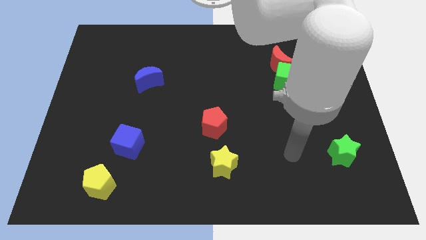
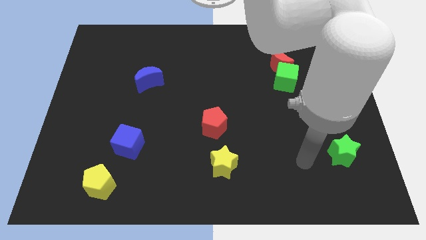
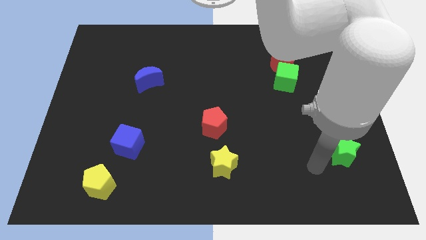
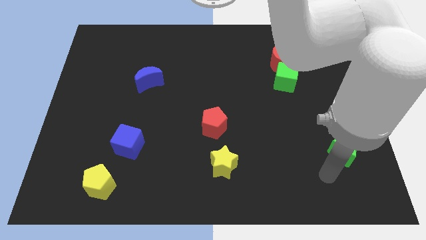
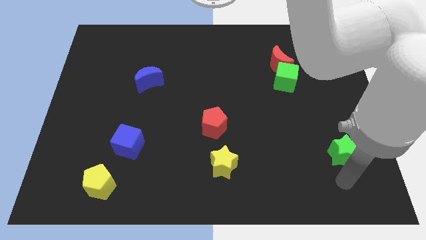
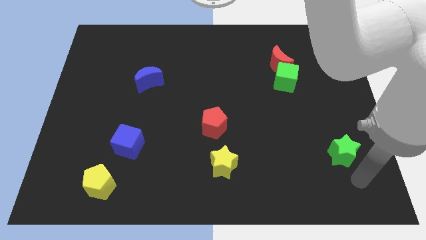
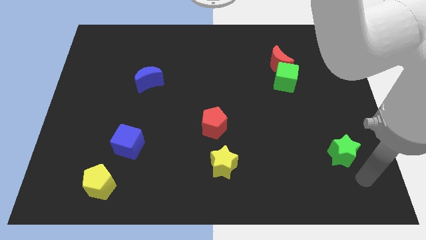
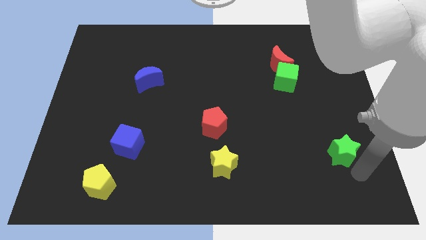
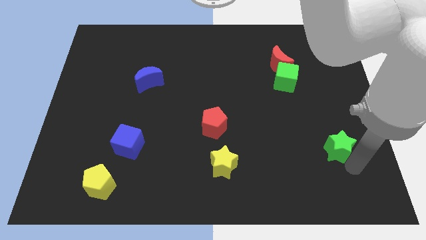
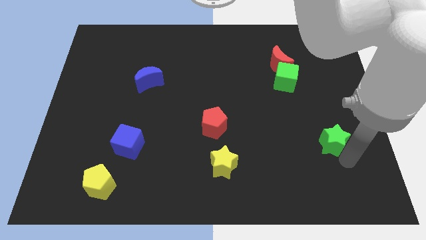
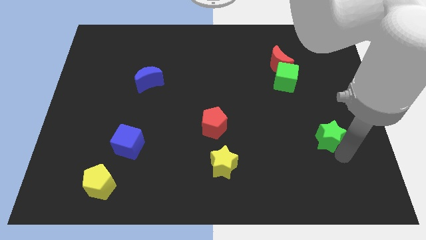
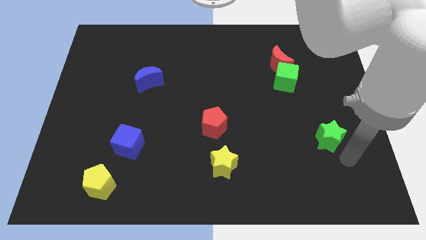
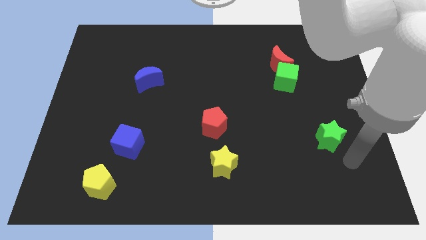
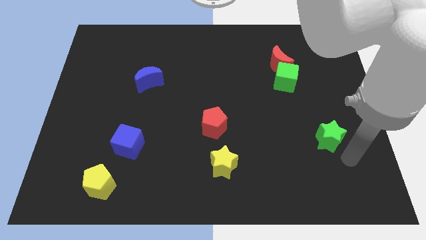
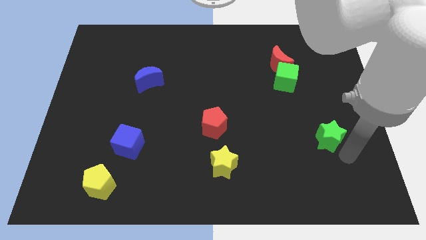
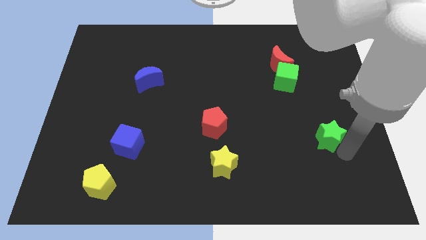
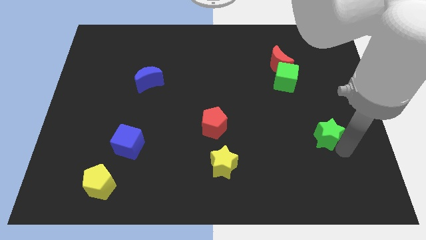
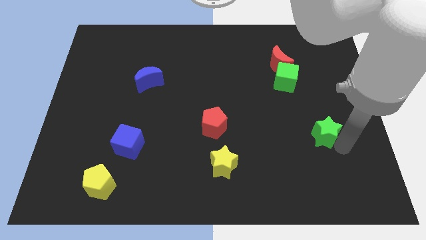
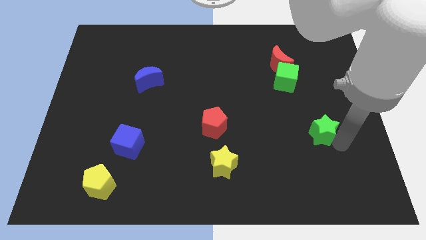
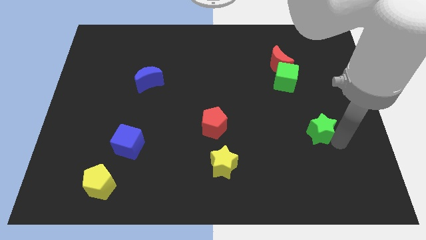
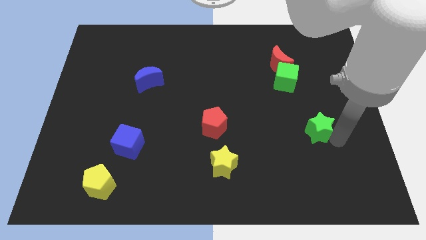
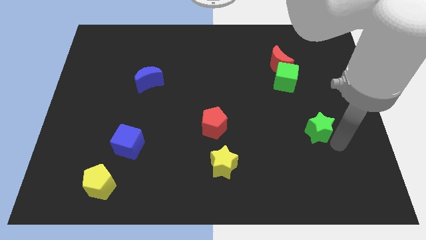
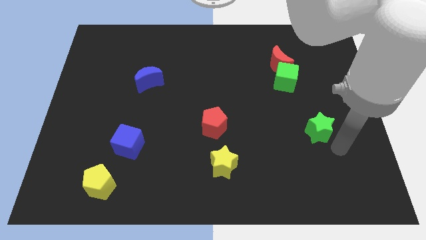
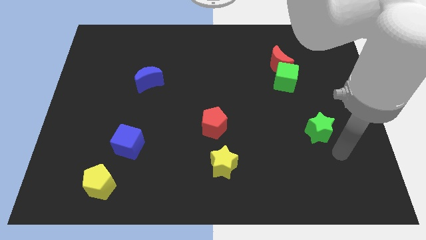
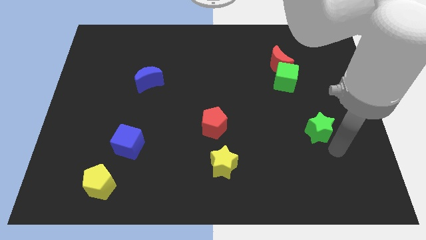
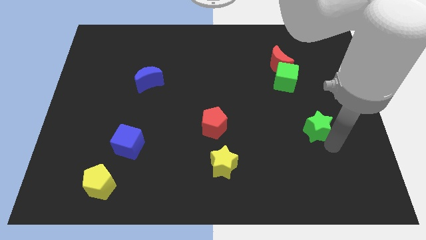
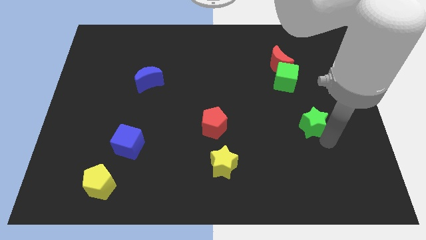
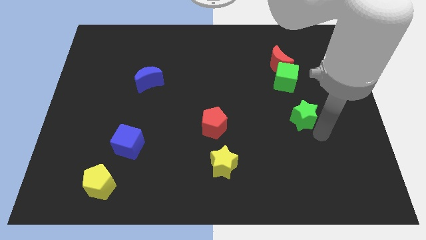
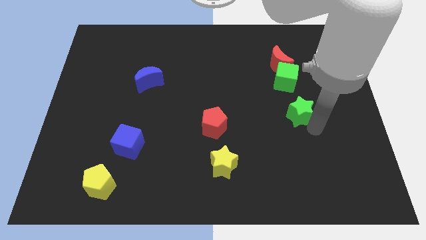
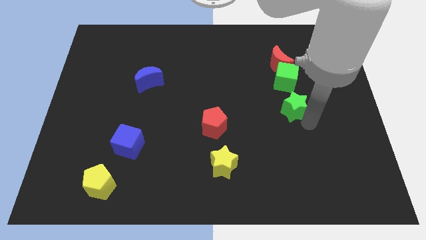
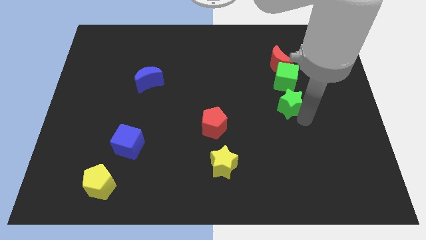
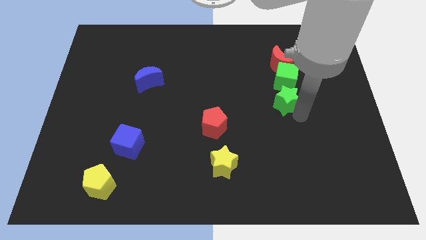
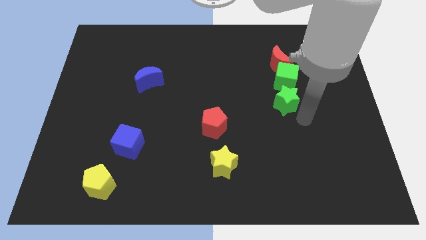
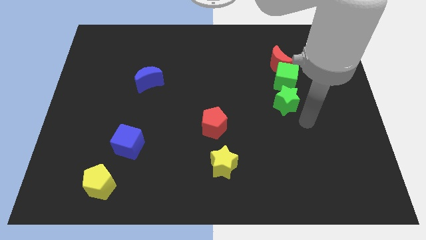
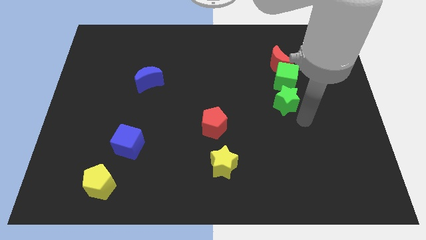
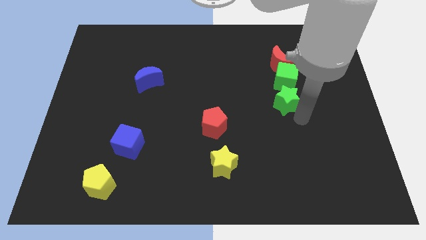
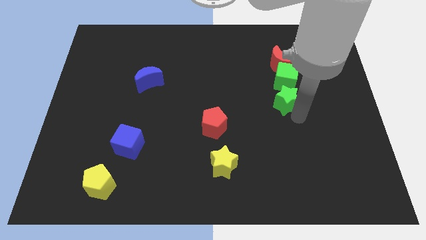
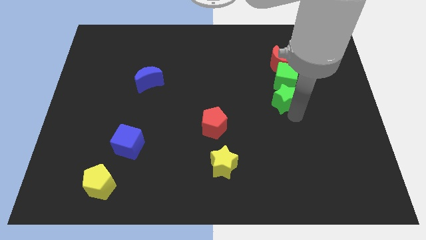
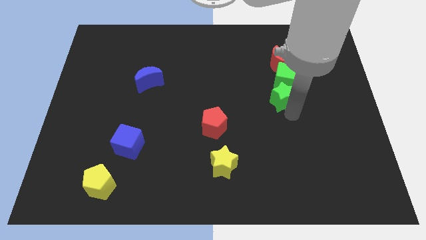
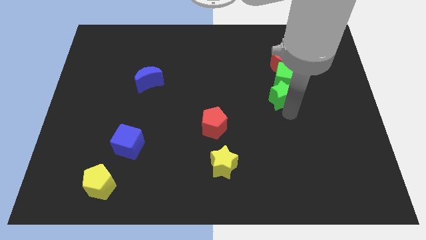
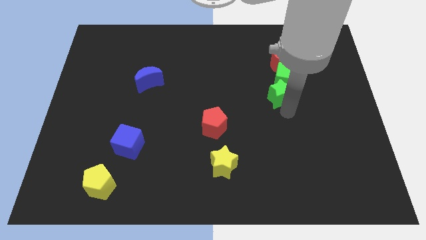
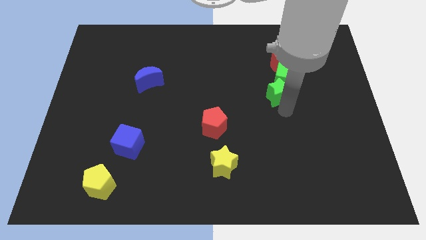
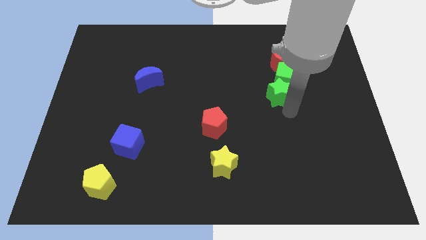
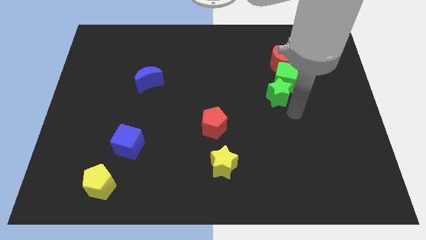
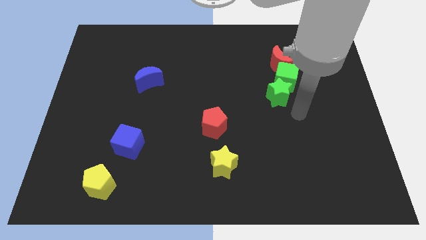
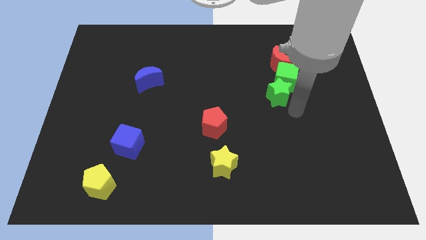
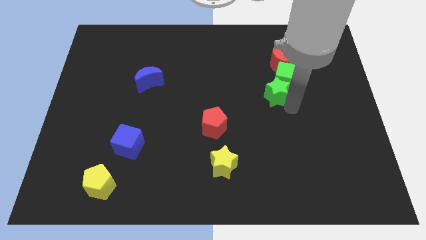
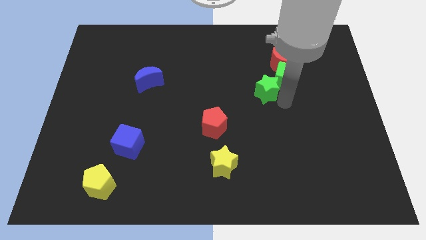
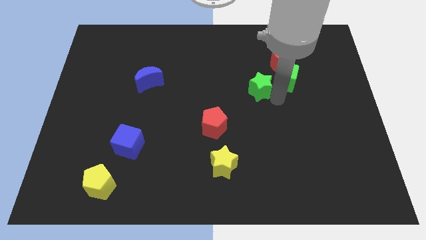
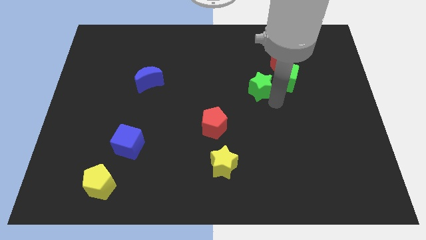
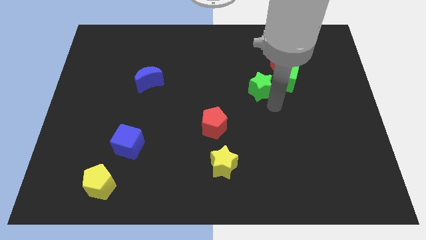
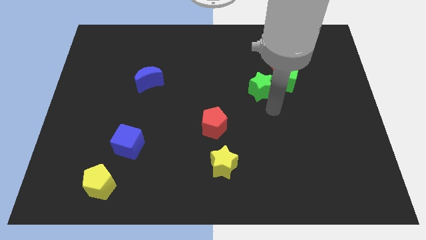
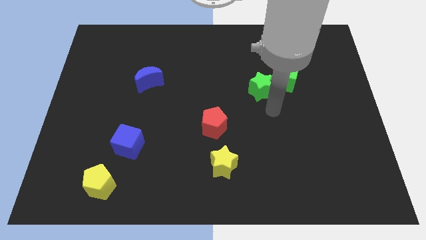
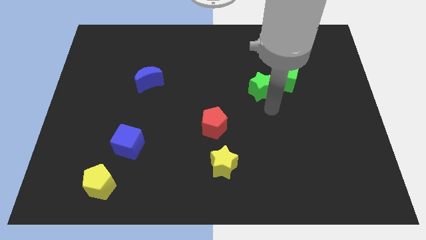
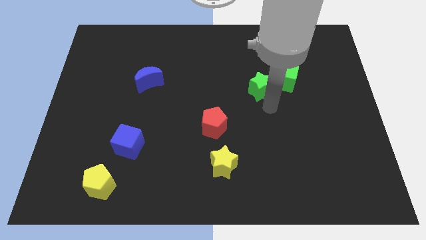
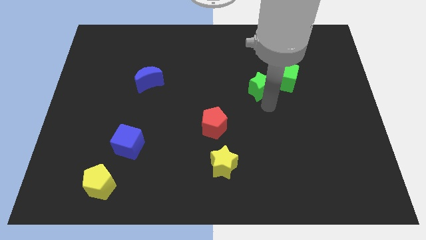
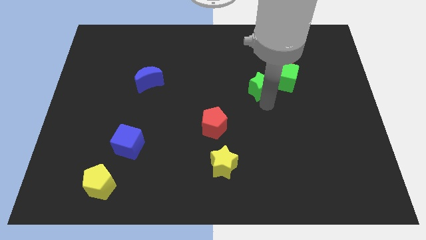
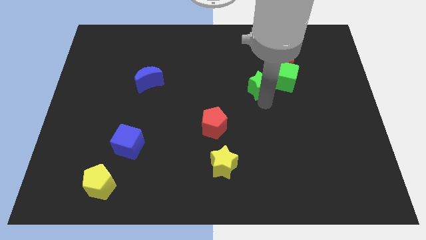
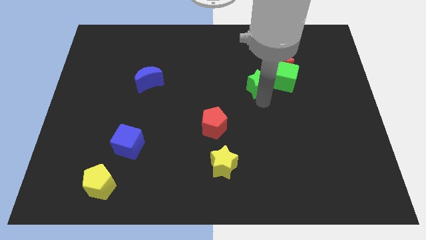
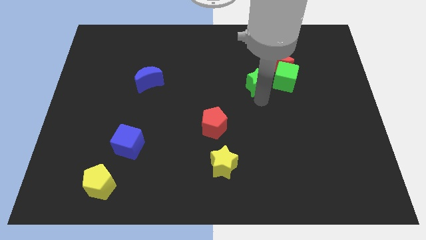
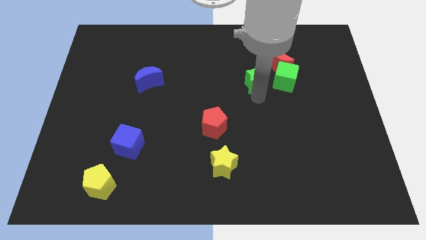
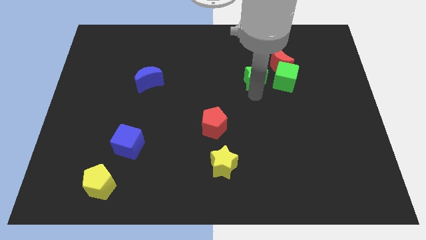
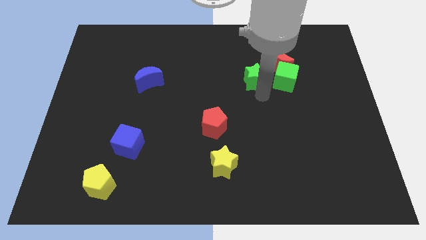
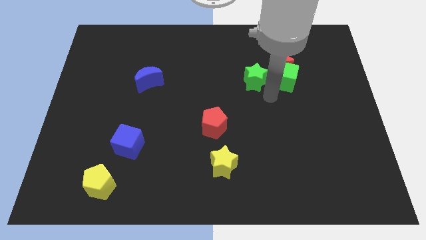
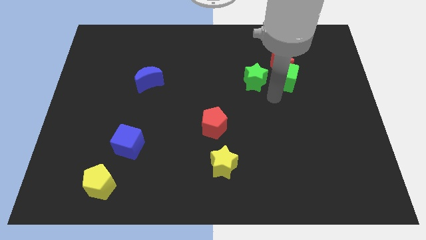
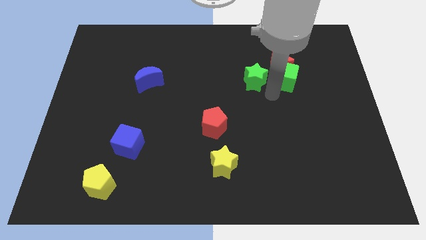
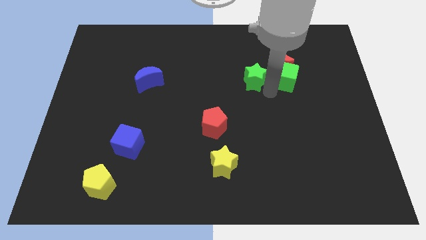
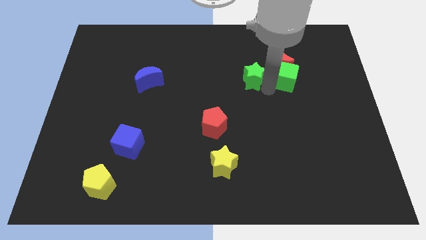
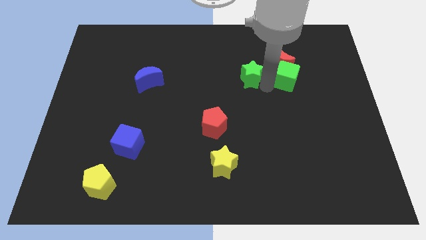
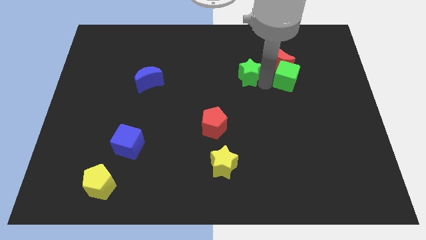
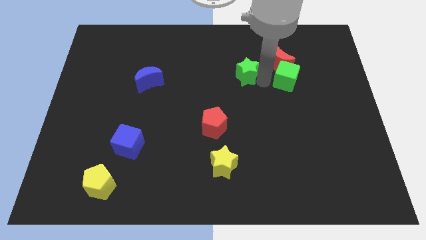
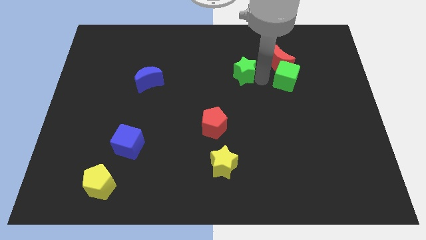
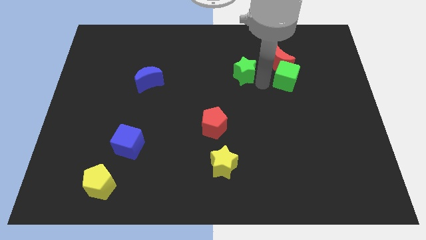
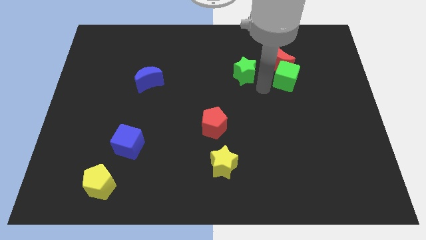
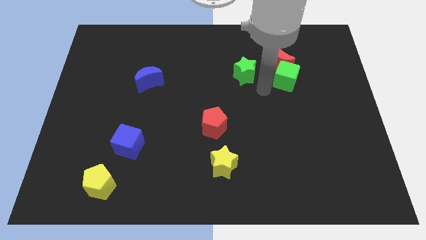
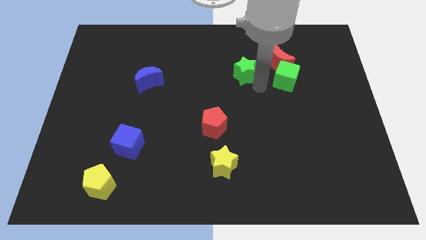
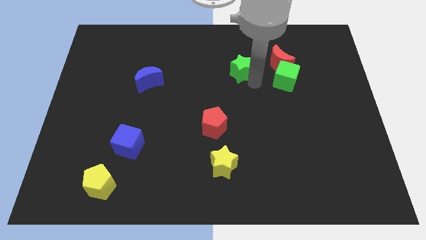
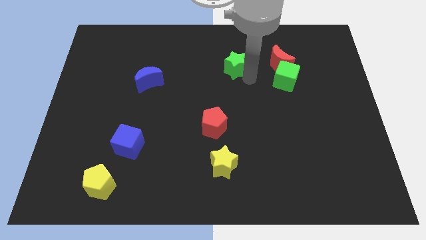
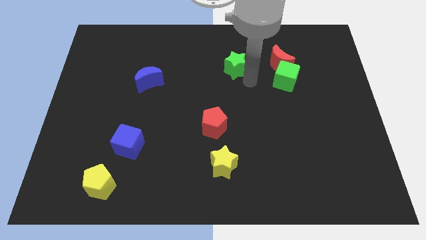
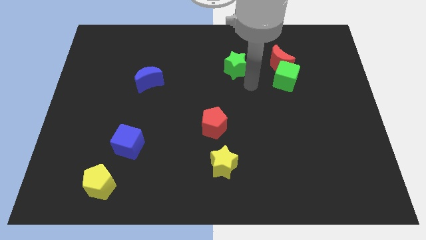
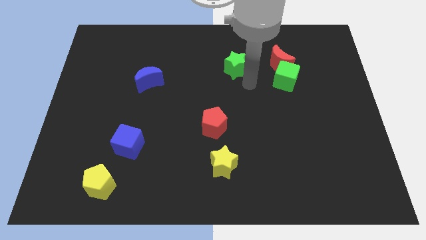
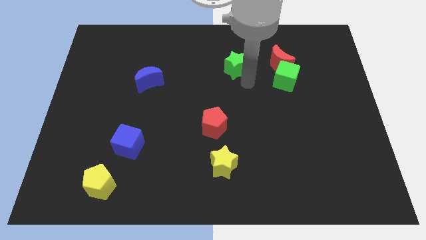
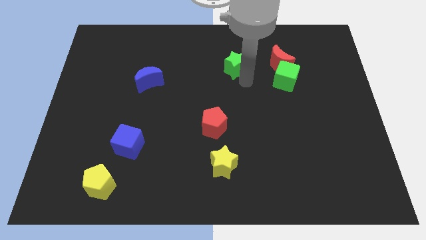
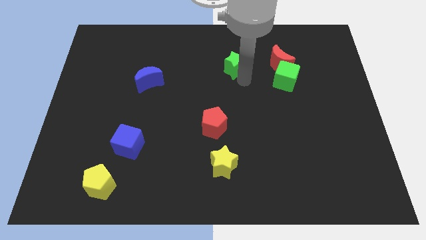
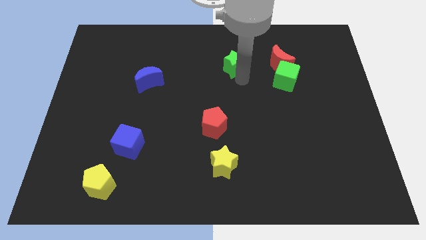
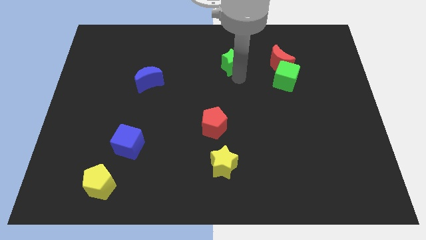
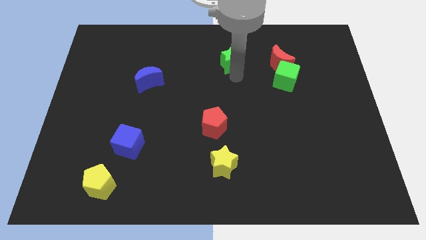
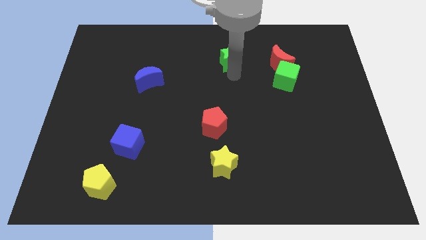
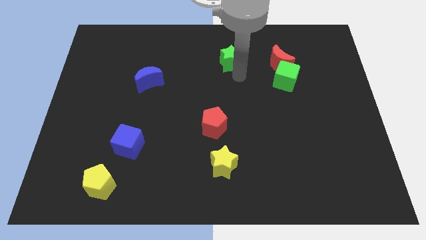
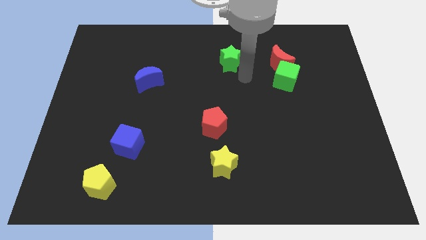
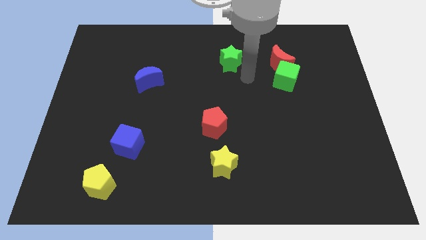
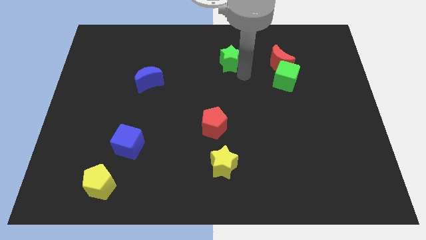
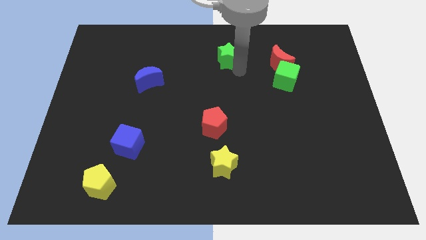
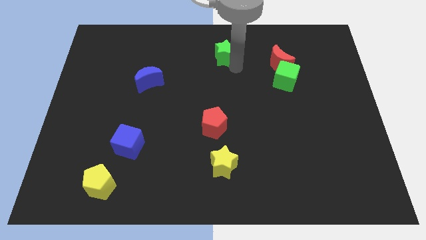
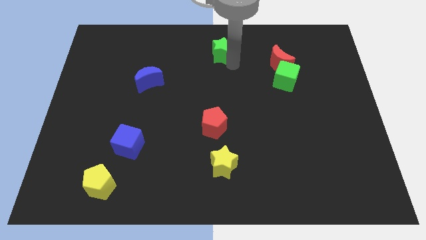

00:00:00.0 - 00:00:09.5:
push the green star to the top side
